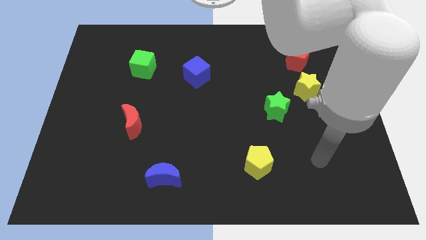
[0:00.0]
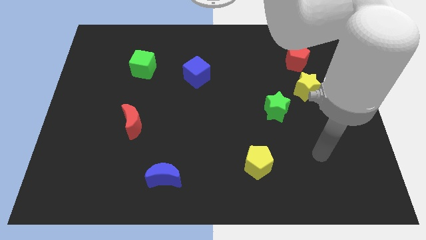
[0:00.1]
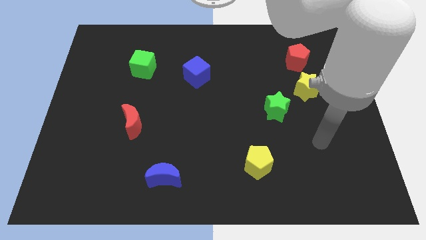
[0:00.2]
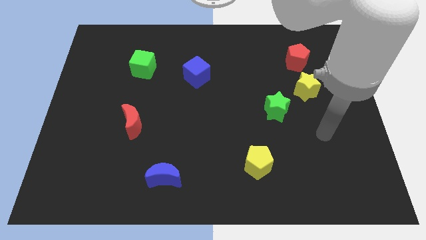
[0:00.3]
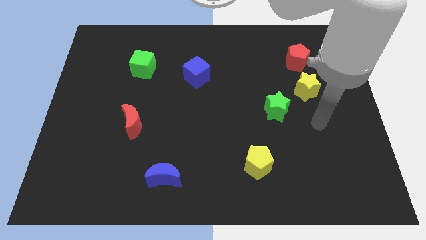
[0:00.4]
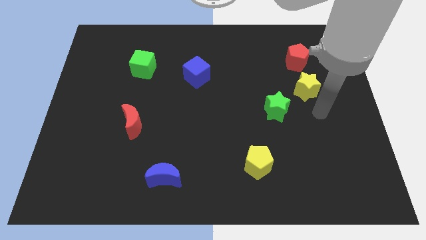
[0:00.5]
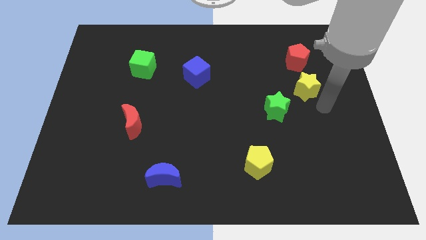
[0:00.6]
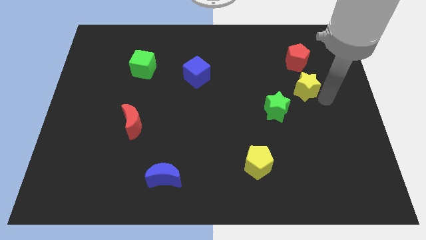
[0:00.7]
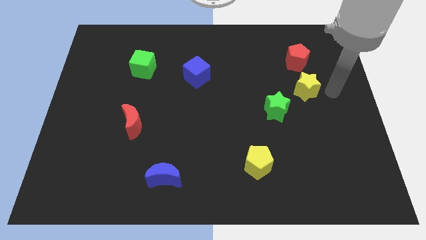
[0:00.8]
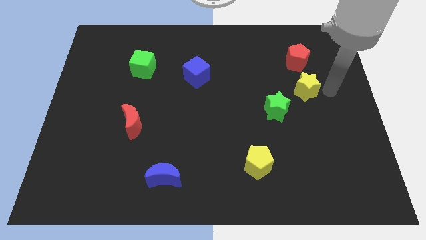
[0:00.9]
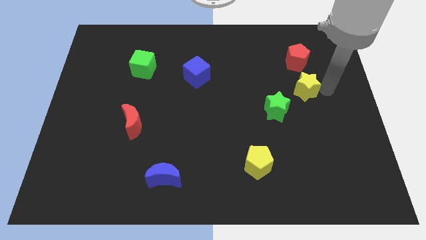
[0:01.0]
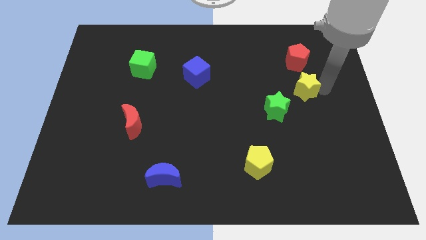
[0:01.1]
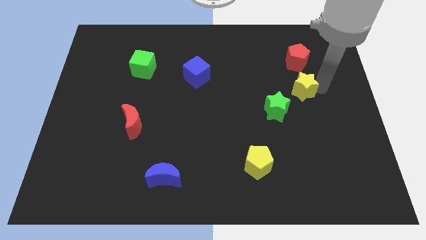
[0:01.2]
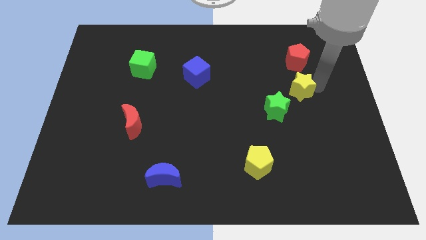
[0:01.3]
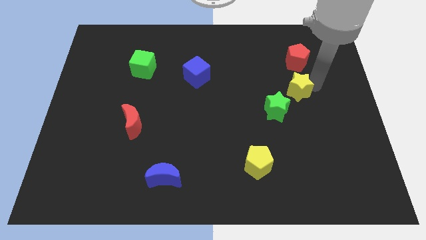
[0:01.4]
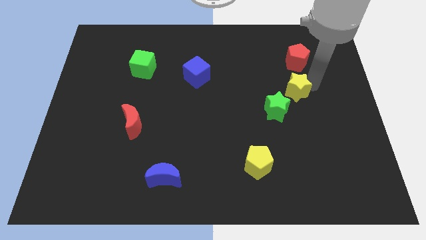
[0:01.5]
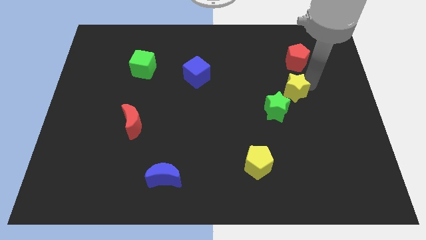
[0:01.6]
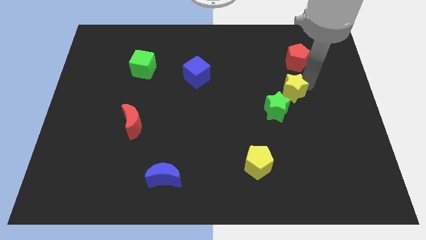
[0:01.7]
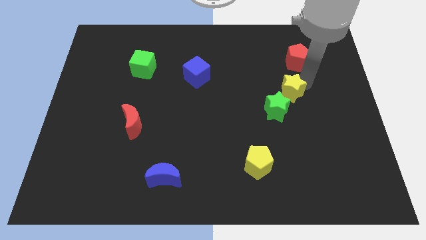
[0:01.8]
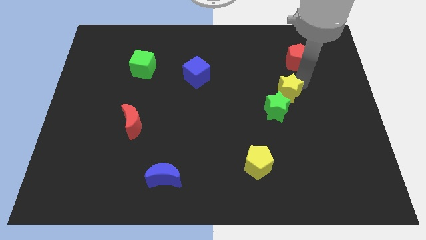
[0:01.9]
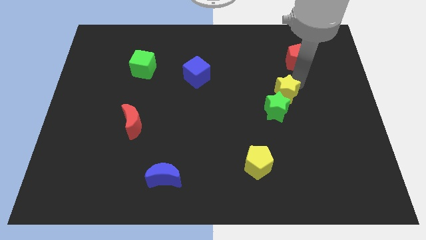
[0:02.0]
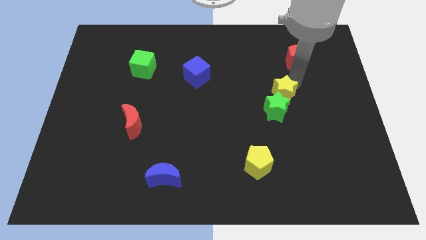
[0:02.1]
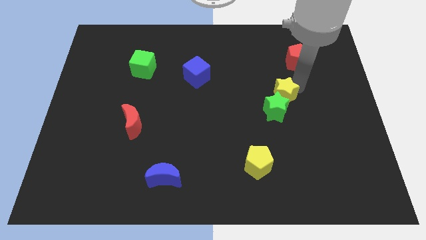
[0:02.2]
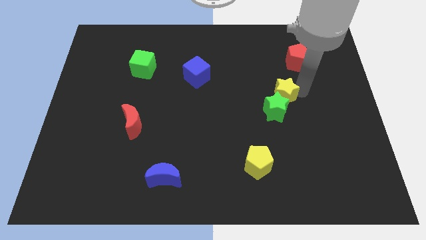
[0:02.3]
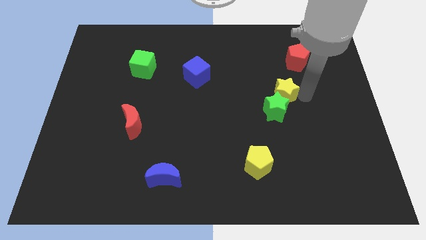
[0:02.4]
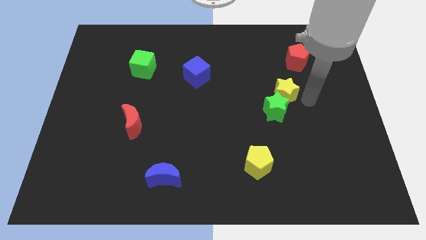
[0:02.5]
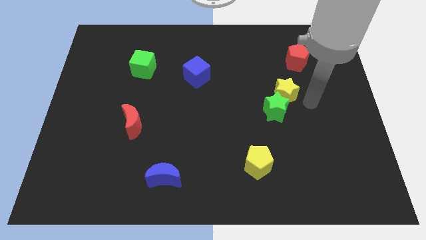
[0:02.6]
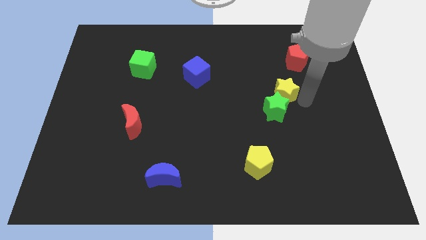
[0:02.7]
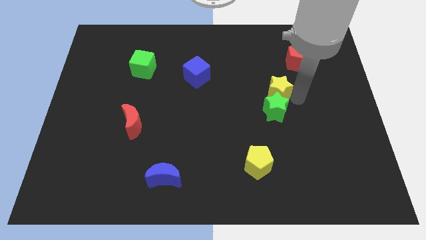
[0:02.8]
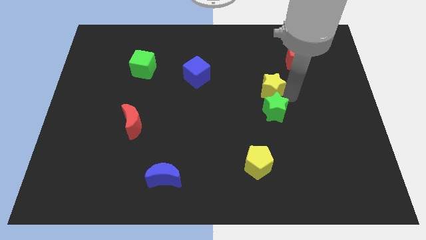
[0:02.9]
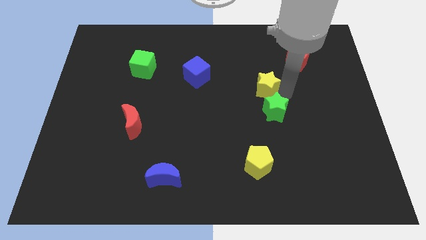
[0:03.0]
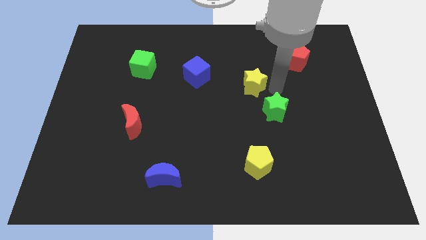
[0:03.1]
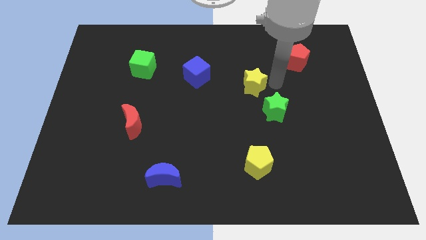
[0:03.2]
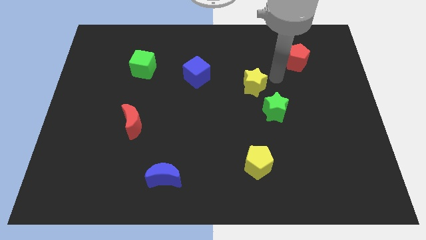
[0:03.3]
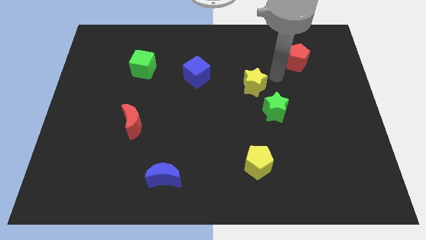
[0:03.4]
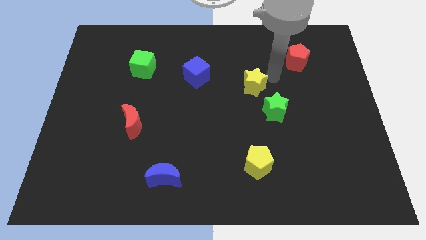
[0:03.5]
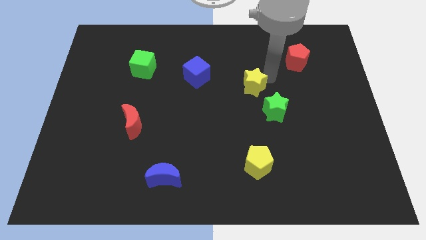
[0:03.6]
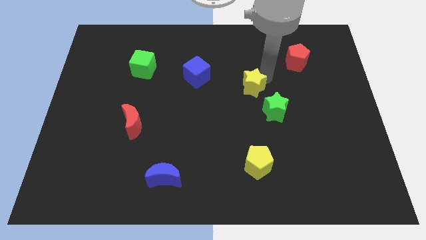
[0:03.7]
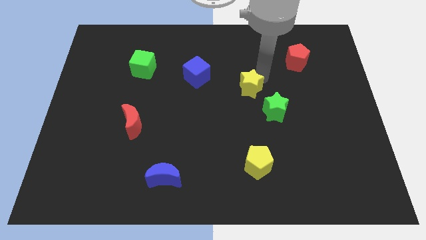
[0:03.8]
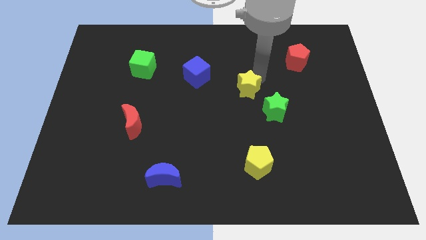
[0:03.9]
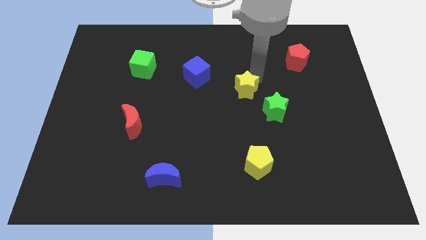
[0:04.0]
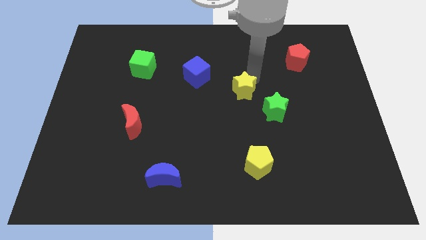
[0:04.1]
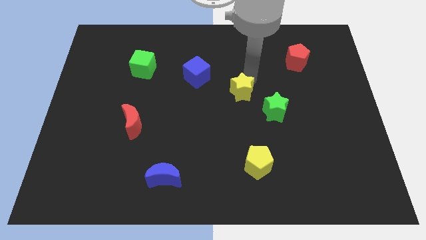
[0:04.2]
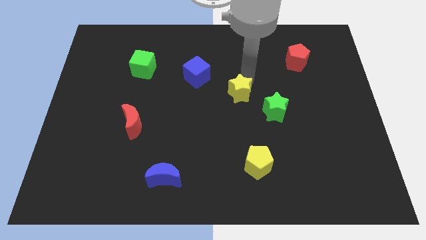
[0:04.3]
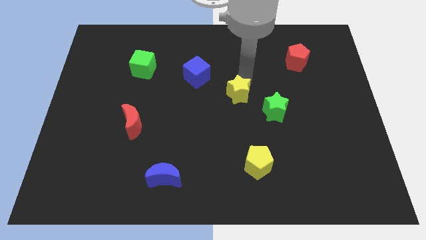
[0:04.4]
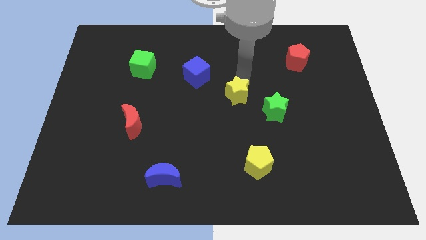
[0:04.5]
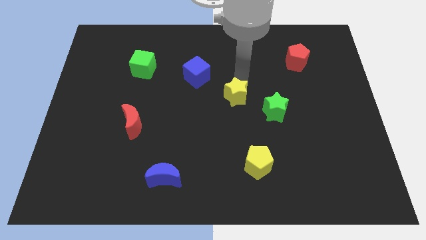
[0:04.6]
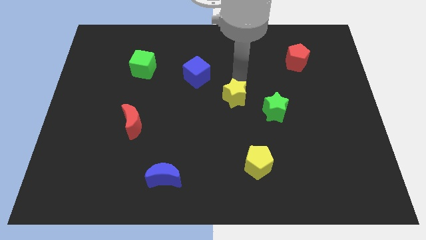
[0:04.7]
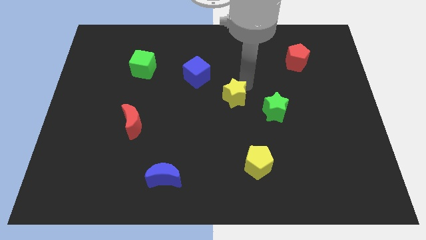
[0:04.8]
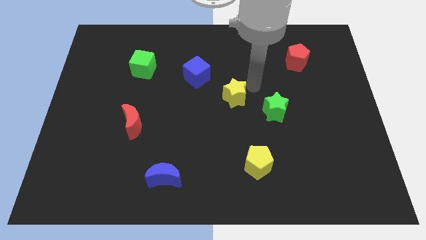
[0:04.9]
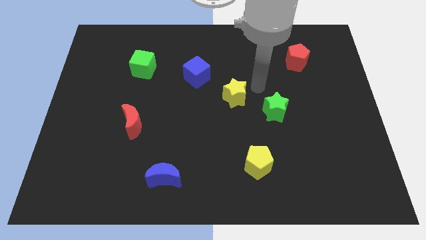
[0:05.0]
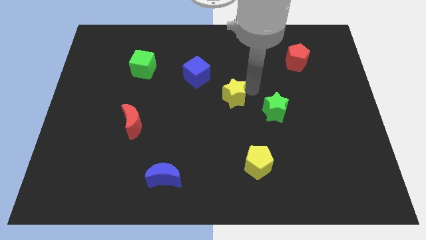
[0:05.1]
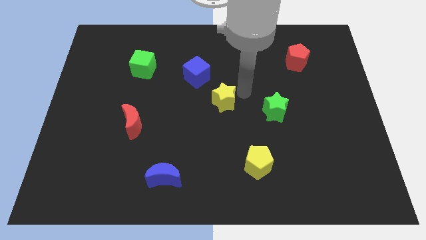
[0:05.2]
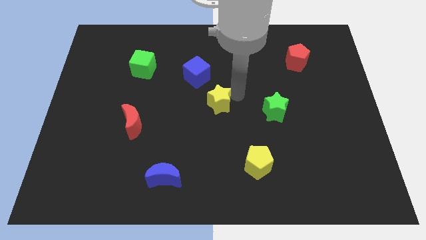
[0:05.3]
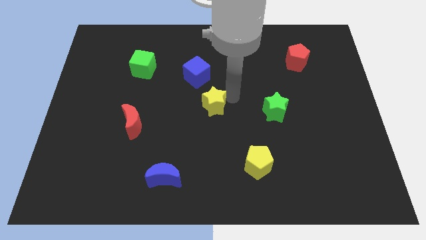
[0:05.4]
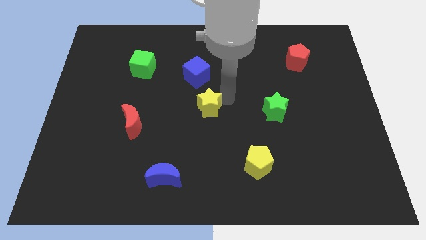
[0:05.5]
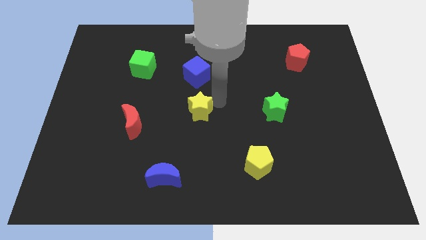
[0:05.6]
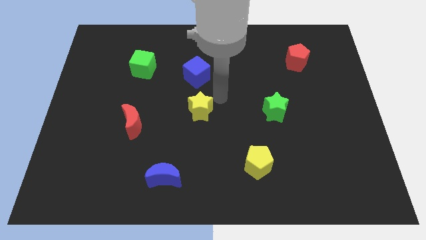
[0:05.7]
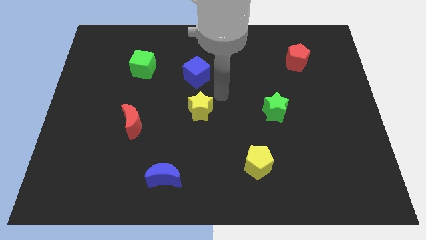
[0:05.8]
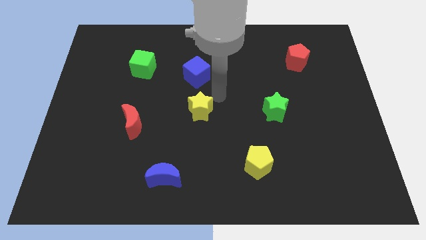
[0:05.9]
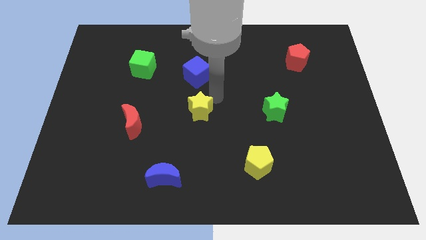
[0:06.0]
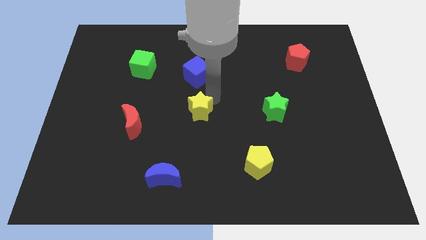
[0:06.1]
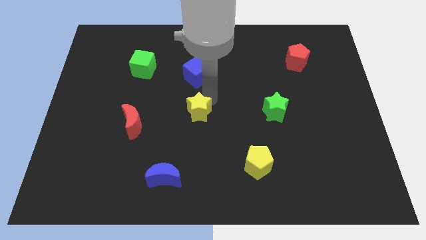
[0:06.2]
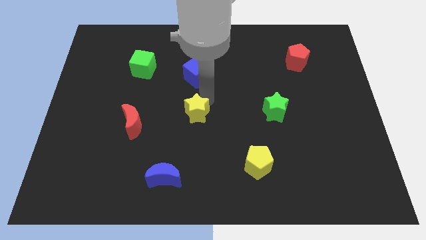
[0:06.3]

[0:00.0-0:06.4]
put the yellow star to the right of the red moon
